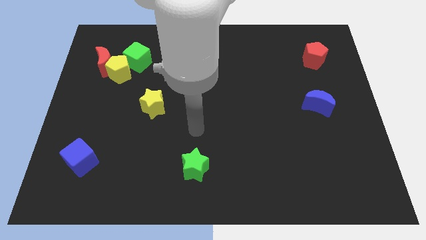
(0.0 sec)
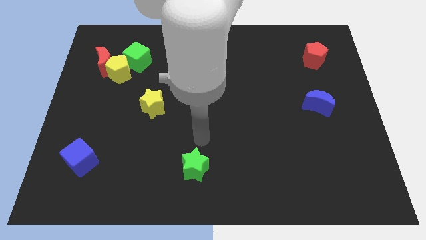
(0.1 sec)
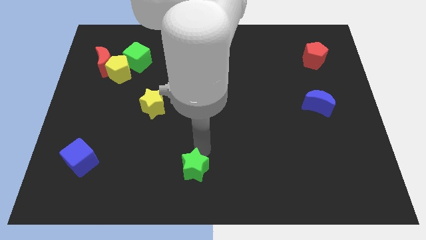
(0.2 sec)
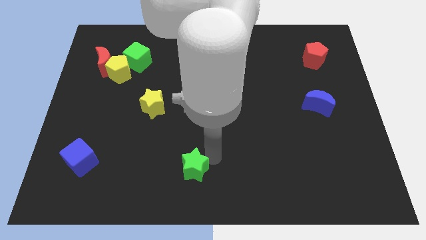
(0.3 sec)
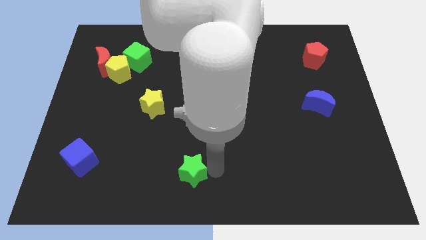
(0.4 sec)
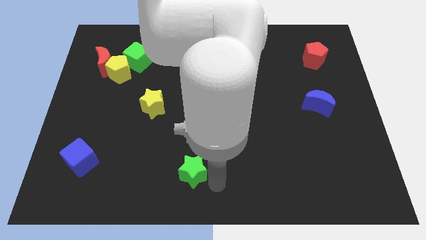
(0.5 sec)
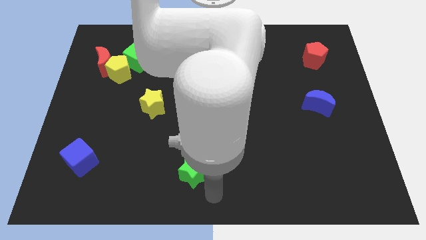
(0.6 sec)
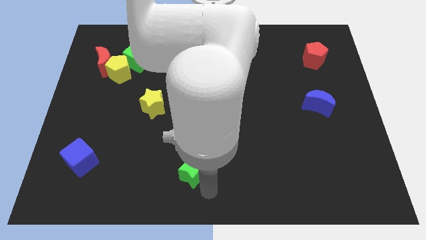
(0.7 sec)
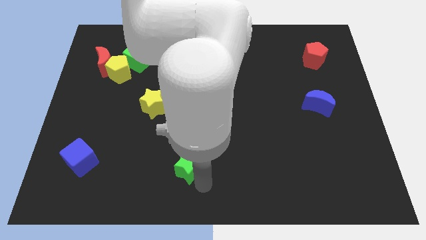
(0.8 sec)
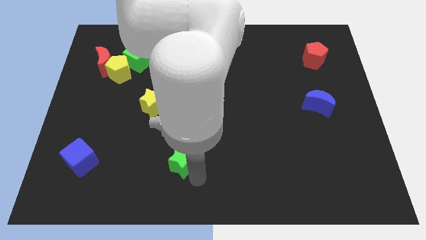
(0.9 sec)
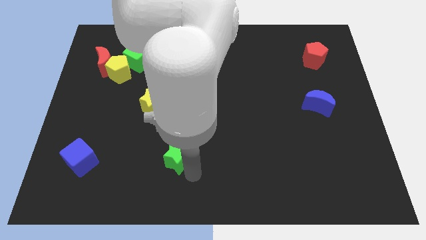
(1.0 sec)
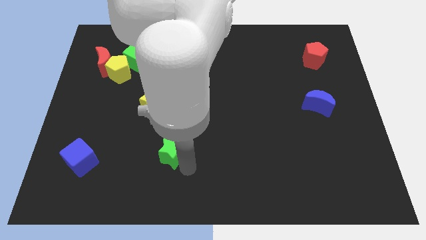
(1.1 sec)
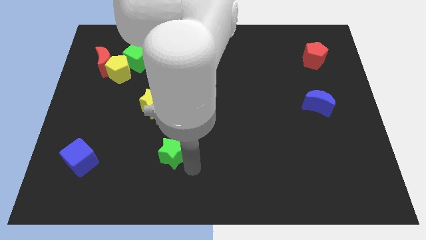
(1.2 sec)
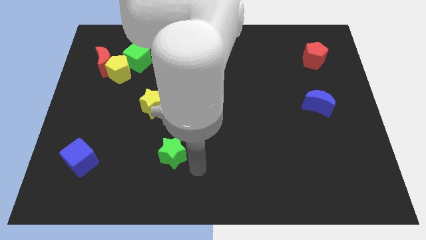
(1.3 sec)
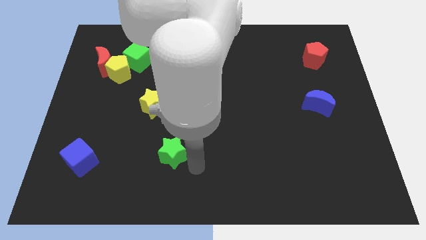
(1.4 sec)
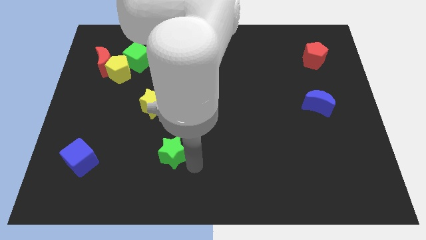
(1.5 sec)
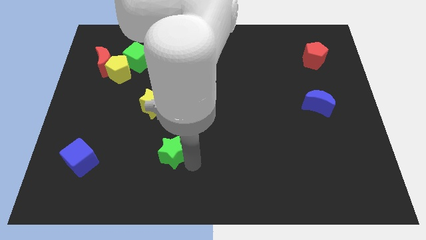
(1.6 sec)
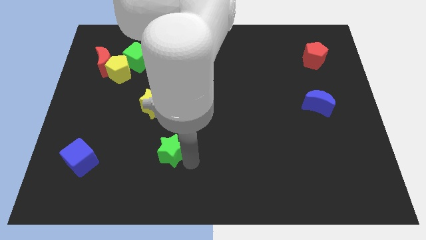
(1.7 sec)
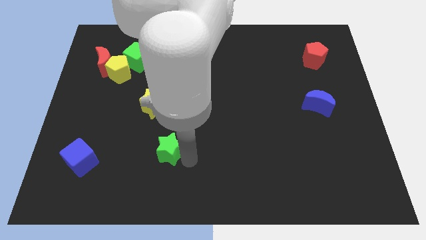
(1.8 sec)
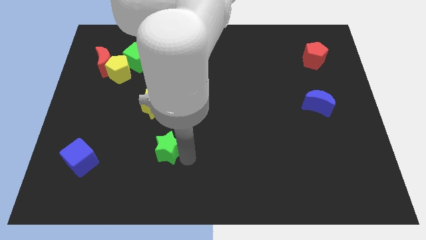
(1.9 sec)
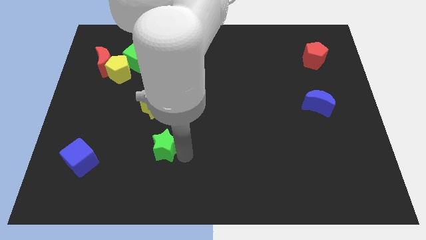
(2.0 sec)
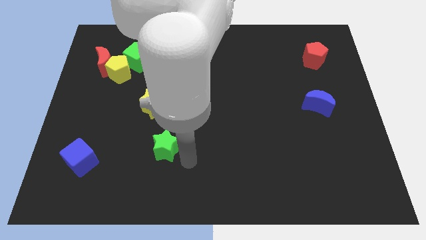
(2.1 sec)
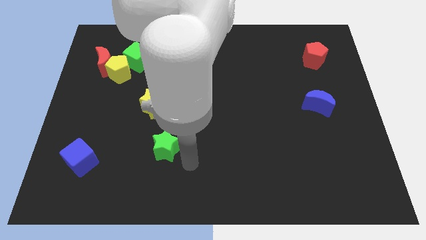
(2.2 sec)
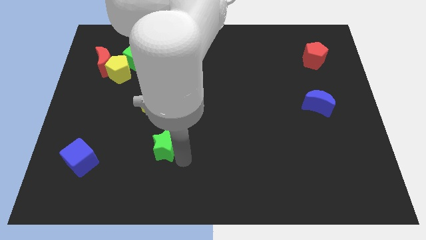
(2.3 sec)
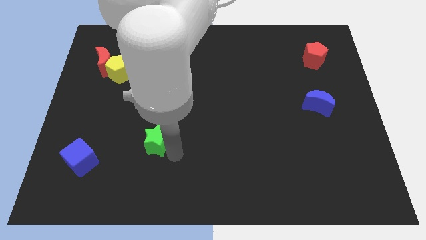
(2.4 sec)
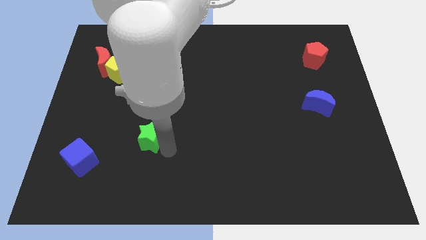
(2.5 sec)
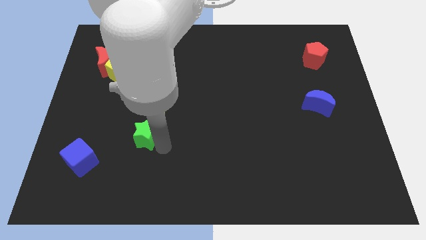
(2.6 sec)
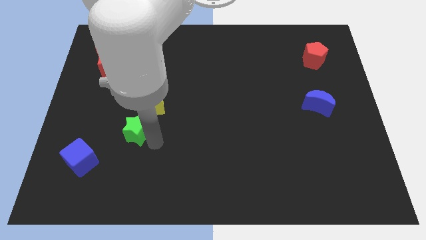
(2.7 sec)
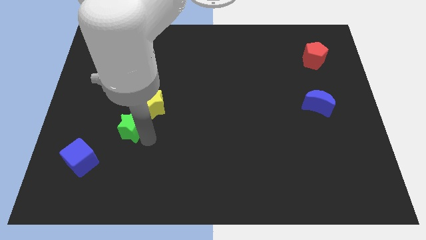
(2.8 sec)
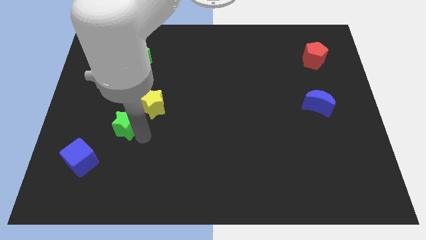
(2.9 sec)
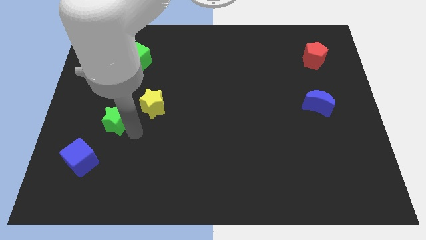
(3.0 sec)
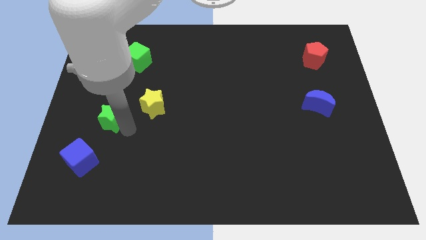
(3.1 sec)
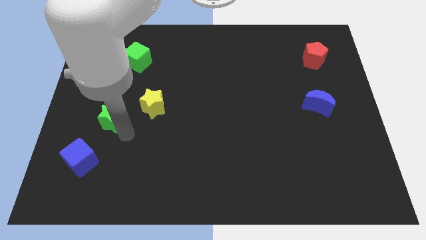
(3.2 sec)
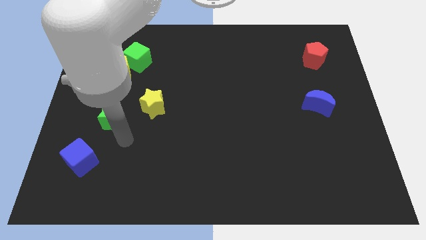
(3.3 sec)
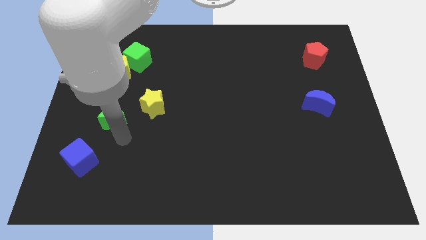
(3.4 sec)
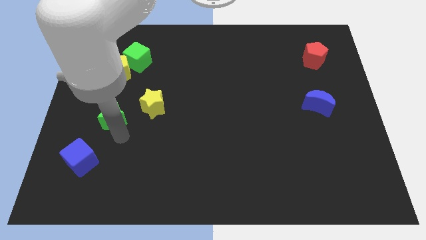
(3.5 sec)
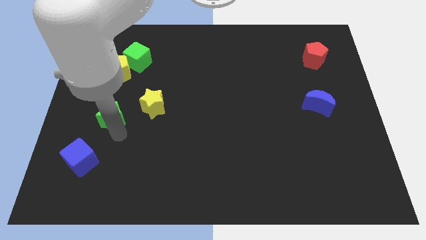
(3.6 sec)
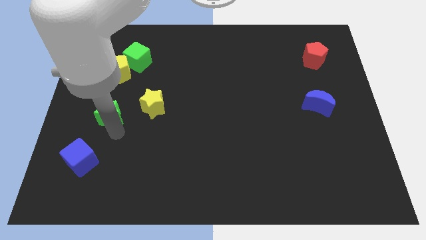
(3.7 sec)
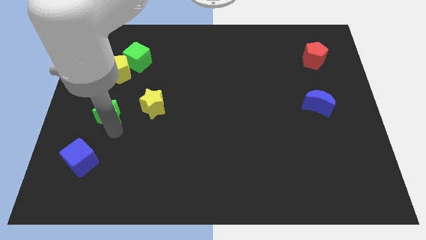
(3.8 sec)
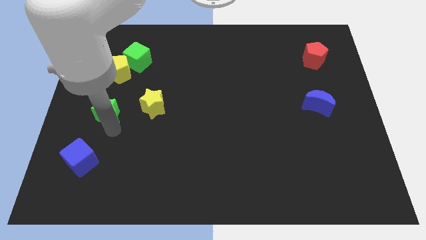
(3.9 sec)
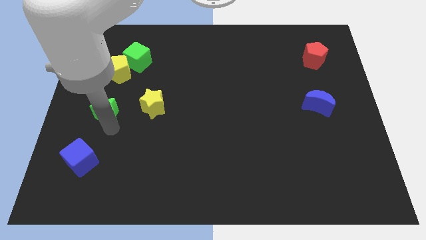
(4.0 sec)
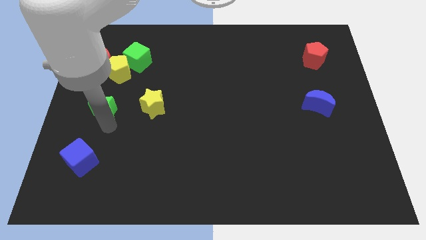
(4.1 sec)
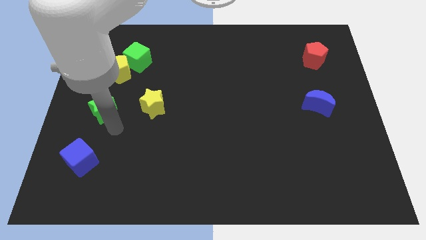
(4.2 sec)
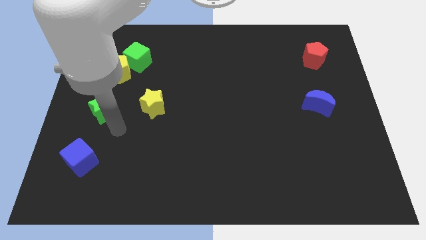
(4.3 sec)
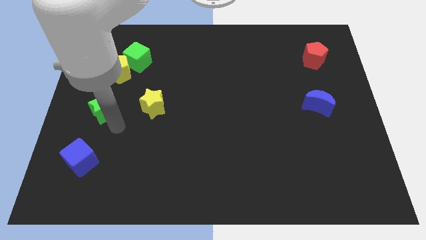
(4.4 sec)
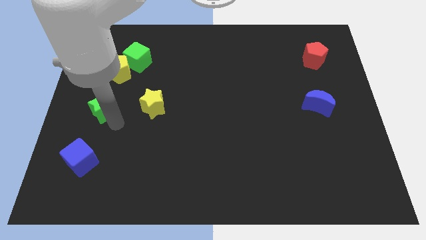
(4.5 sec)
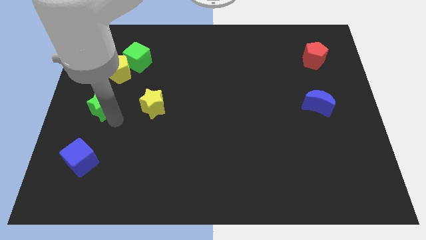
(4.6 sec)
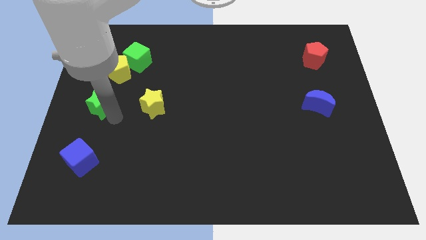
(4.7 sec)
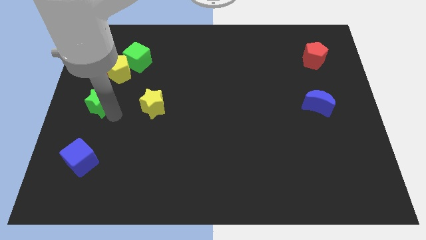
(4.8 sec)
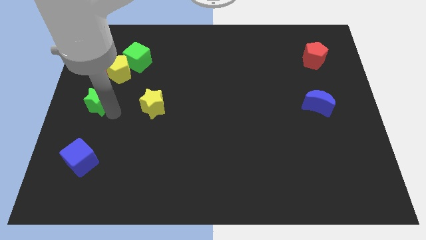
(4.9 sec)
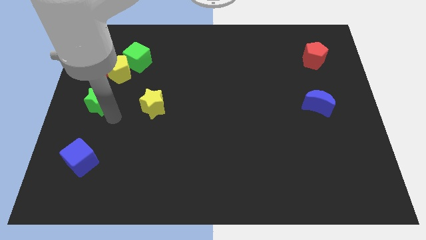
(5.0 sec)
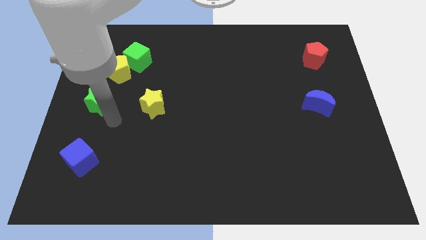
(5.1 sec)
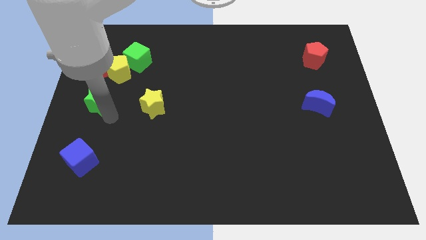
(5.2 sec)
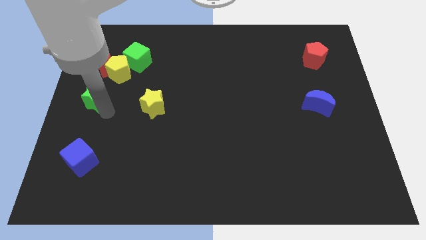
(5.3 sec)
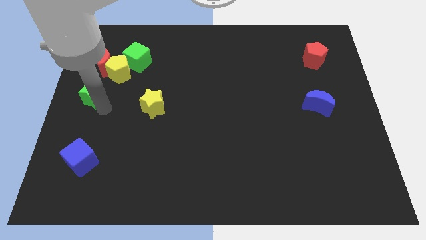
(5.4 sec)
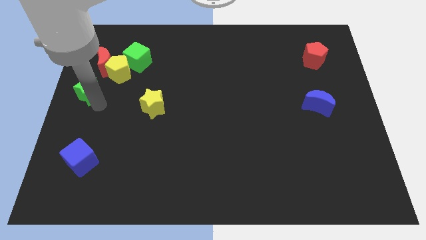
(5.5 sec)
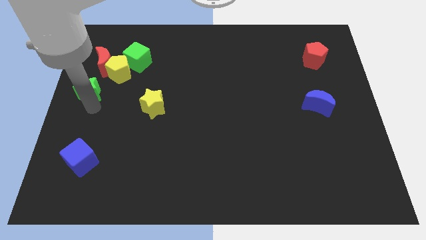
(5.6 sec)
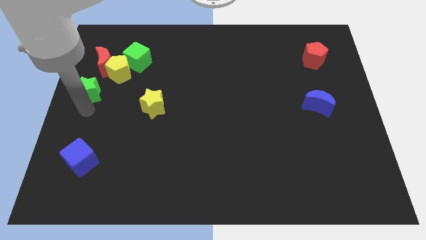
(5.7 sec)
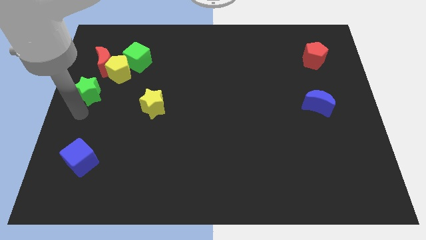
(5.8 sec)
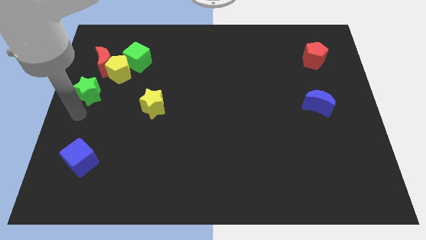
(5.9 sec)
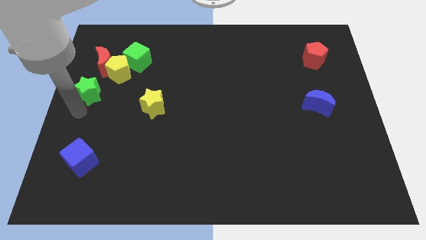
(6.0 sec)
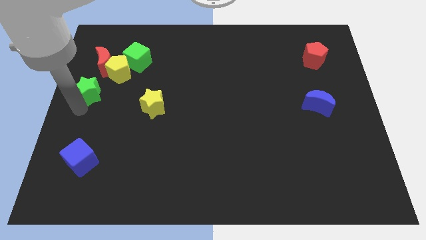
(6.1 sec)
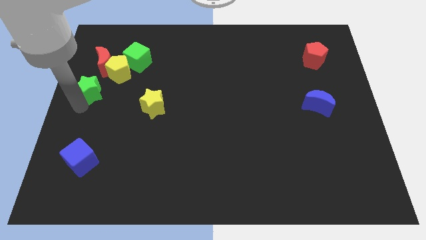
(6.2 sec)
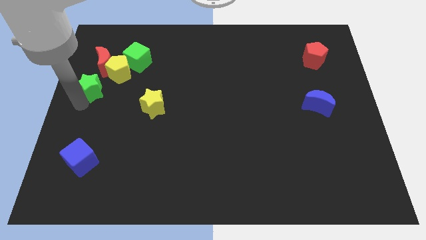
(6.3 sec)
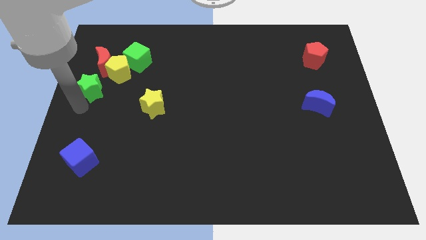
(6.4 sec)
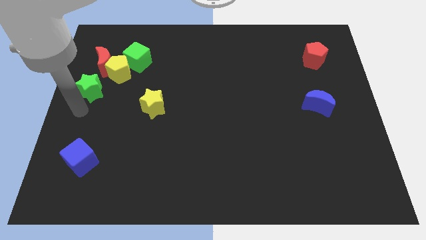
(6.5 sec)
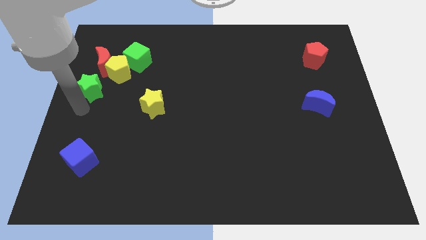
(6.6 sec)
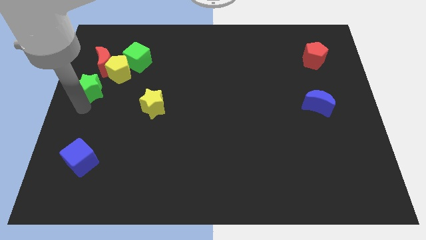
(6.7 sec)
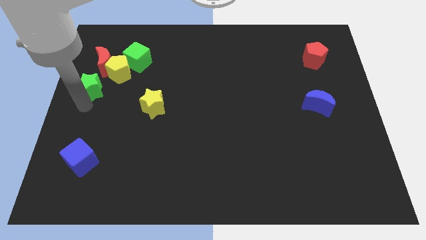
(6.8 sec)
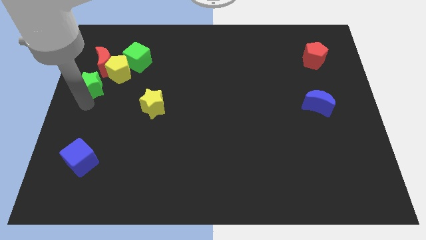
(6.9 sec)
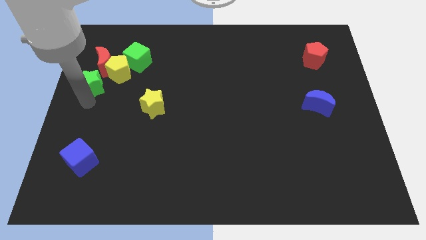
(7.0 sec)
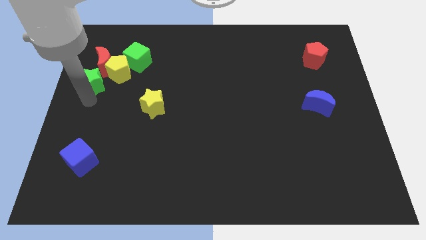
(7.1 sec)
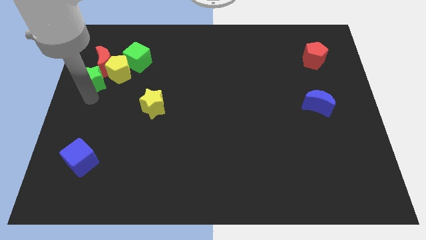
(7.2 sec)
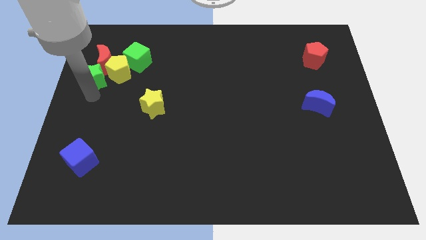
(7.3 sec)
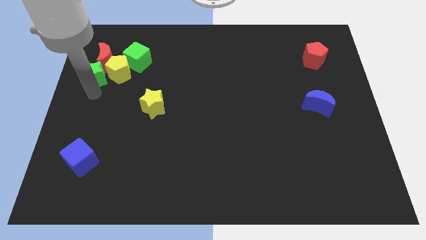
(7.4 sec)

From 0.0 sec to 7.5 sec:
push the green star towards the red moon

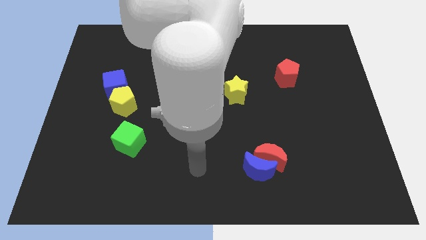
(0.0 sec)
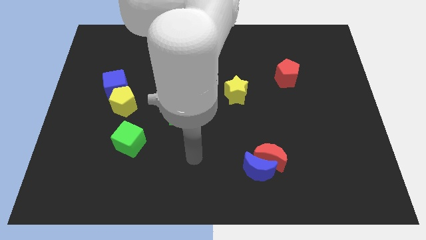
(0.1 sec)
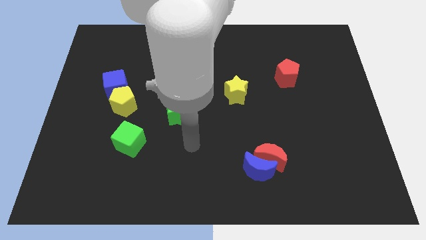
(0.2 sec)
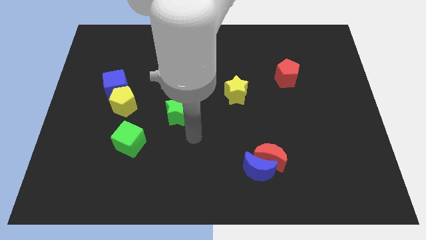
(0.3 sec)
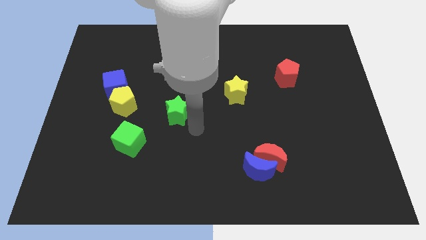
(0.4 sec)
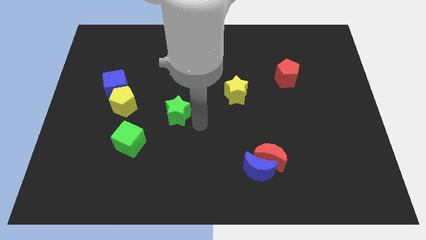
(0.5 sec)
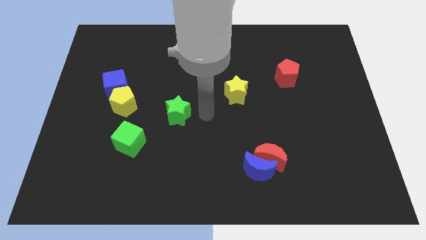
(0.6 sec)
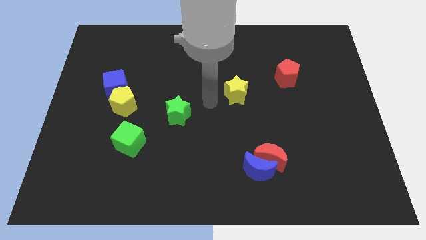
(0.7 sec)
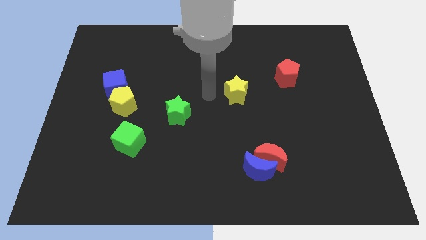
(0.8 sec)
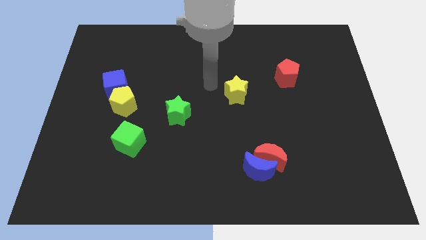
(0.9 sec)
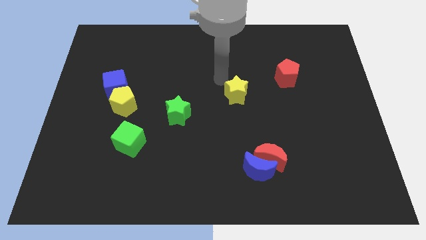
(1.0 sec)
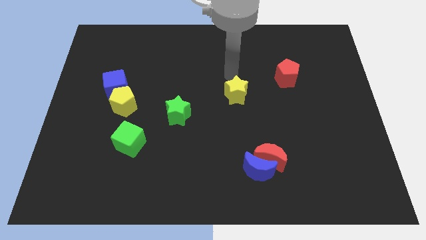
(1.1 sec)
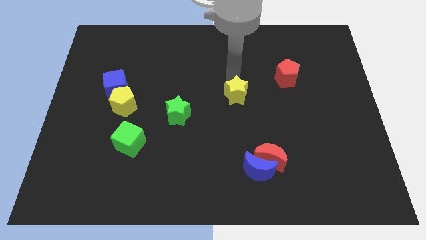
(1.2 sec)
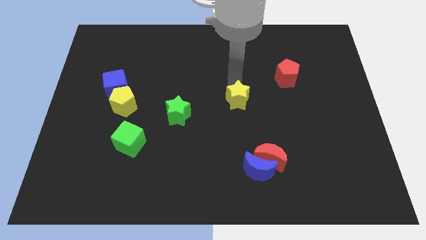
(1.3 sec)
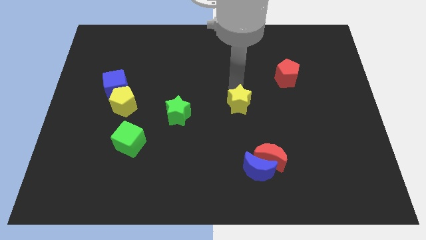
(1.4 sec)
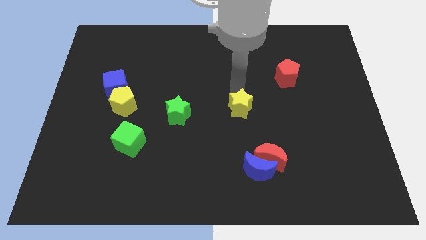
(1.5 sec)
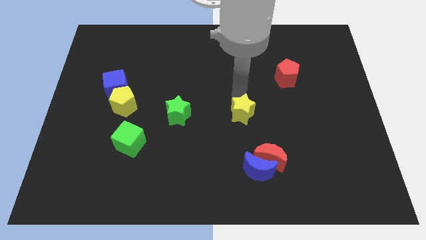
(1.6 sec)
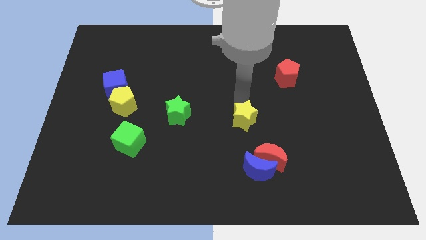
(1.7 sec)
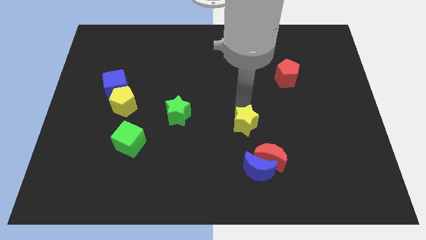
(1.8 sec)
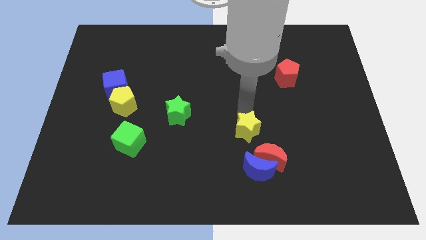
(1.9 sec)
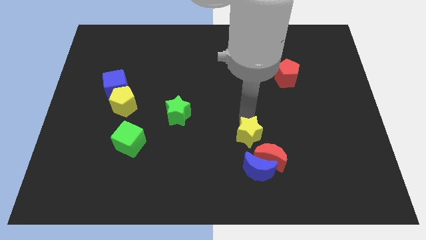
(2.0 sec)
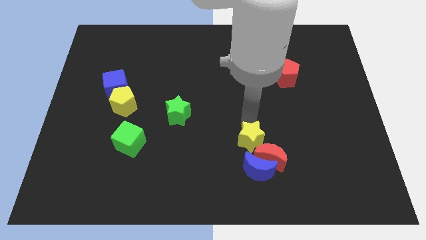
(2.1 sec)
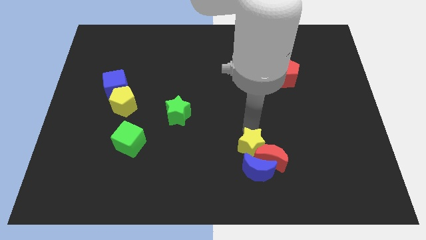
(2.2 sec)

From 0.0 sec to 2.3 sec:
move the yellow star towards the blue moon
